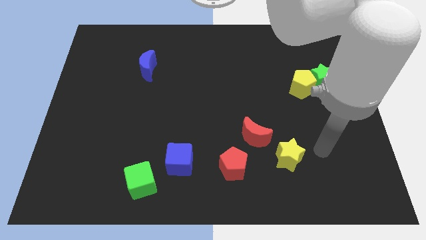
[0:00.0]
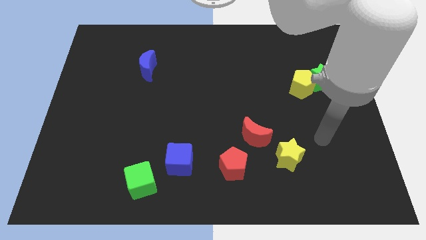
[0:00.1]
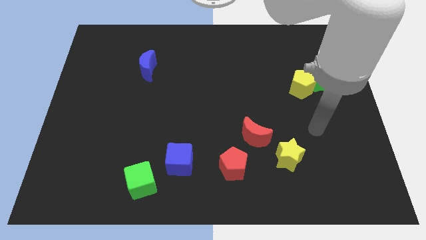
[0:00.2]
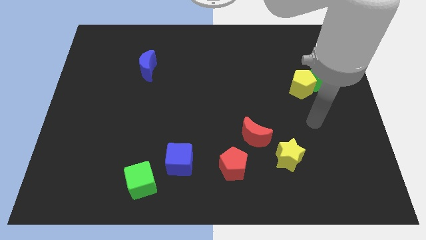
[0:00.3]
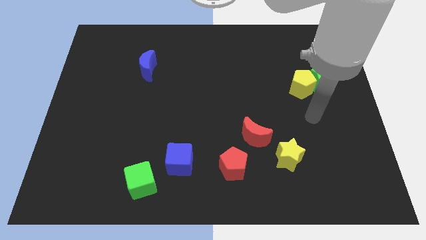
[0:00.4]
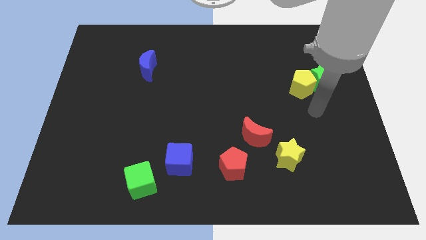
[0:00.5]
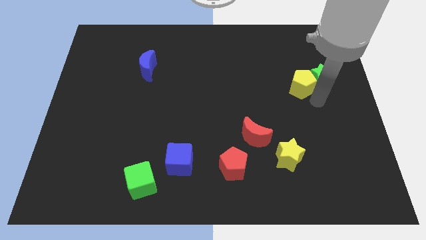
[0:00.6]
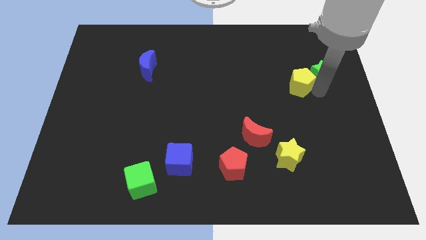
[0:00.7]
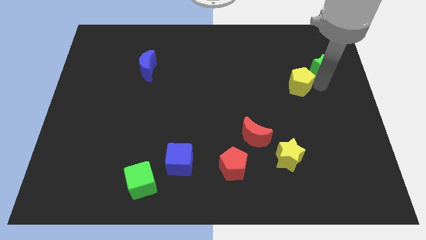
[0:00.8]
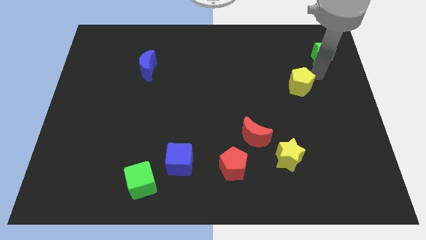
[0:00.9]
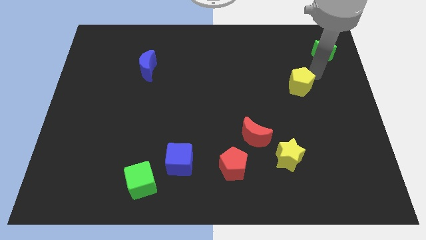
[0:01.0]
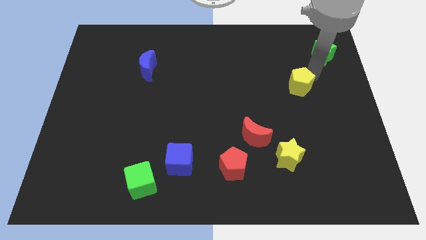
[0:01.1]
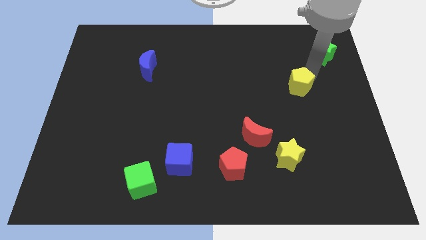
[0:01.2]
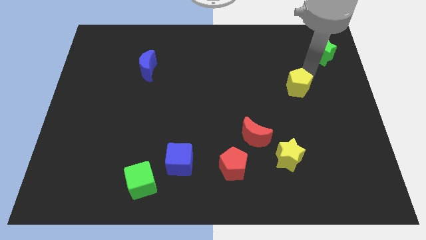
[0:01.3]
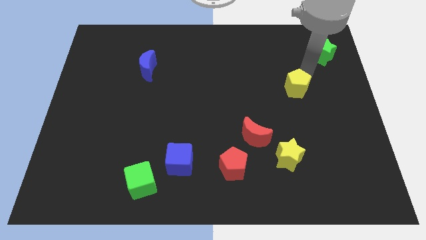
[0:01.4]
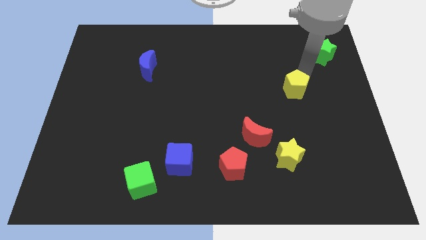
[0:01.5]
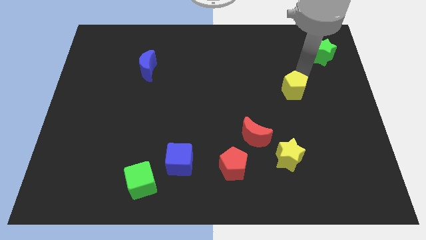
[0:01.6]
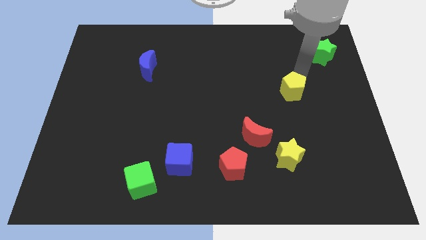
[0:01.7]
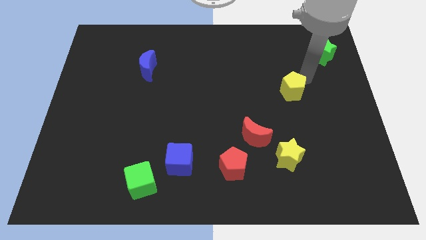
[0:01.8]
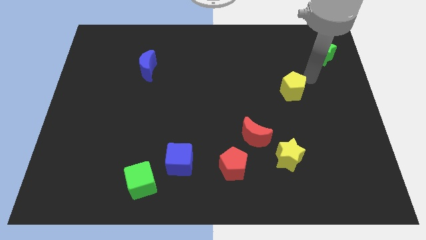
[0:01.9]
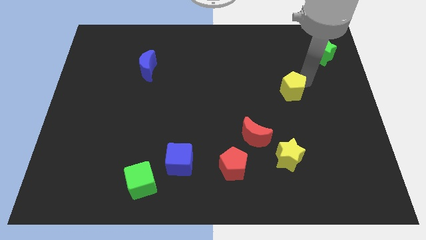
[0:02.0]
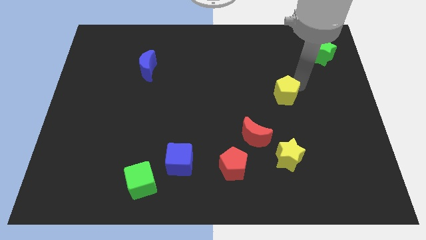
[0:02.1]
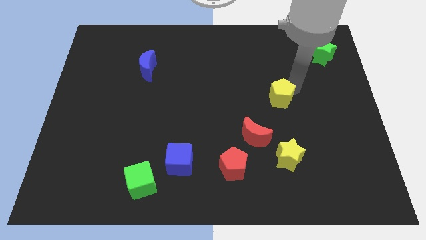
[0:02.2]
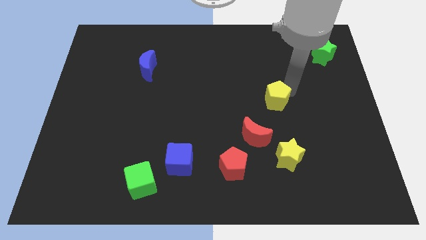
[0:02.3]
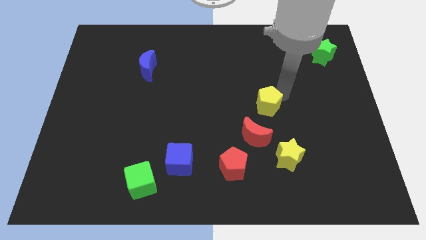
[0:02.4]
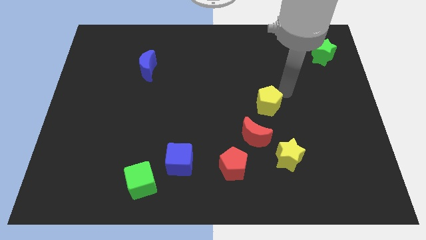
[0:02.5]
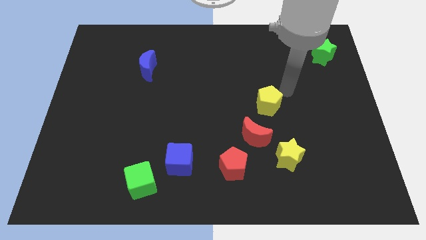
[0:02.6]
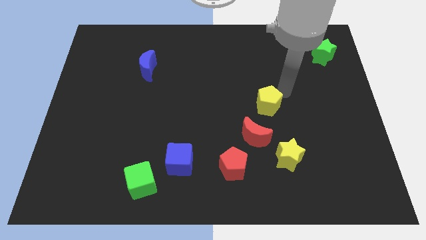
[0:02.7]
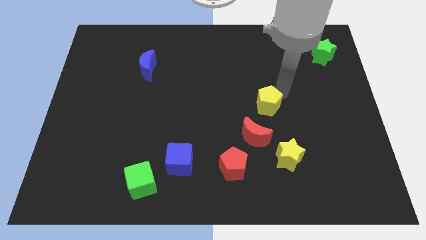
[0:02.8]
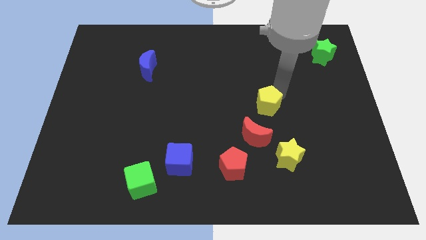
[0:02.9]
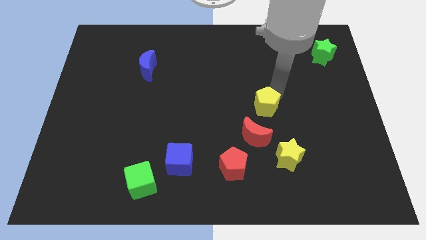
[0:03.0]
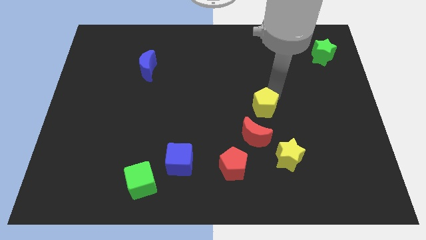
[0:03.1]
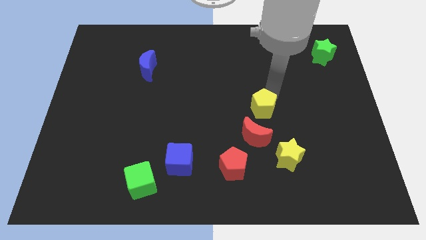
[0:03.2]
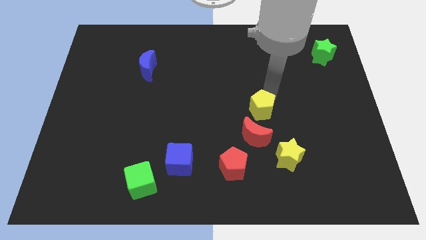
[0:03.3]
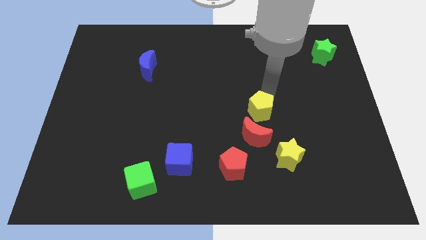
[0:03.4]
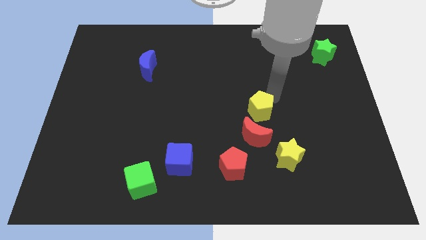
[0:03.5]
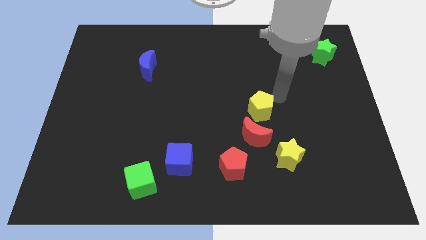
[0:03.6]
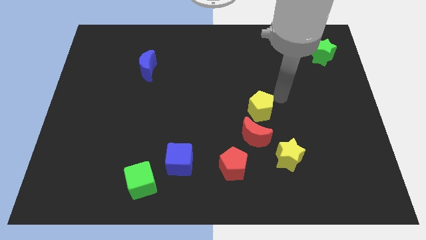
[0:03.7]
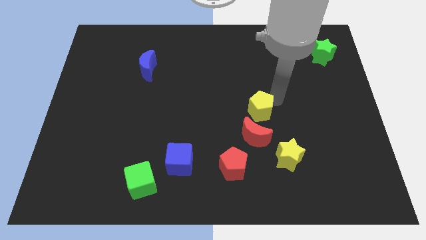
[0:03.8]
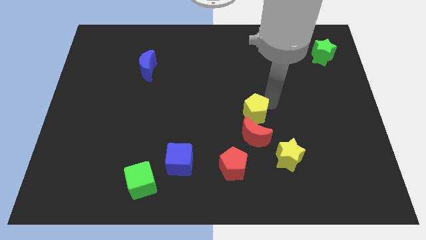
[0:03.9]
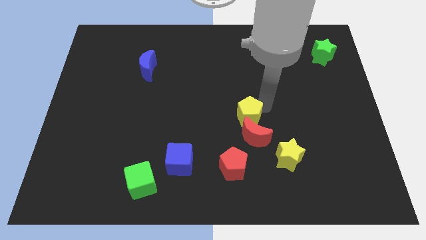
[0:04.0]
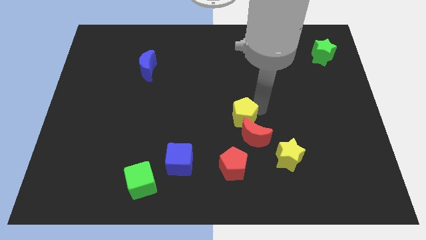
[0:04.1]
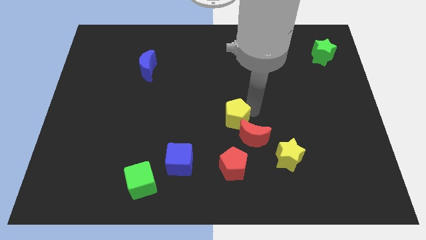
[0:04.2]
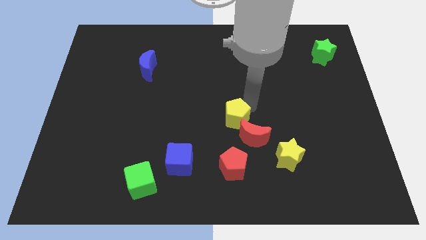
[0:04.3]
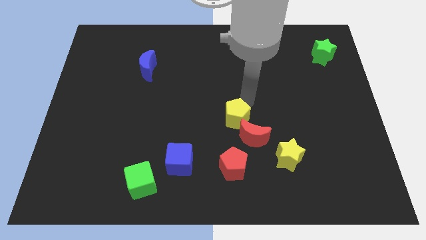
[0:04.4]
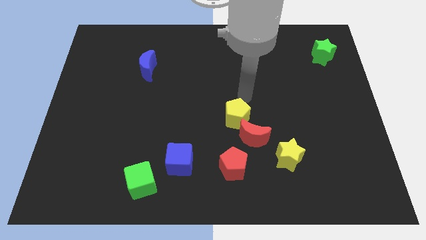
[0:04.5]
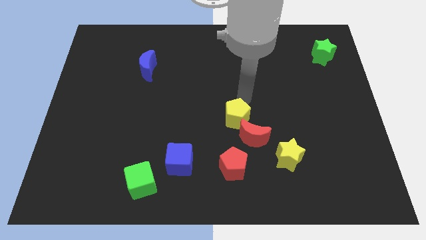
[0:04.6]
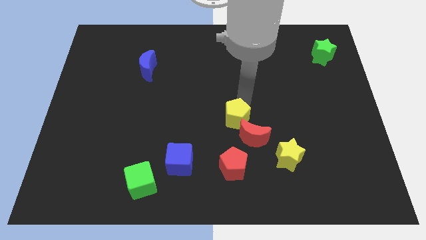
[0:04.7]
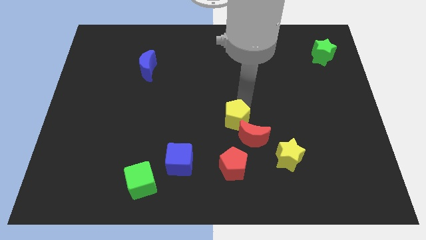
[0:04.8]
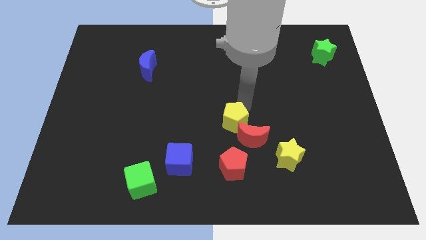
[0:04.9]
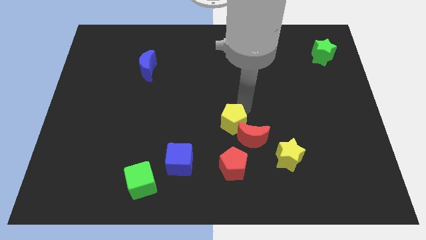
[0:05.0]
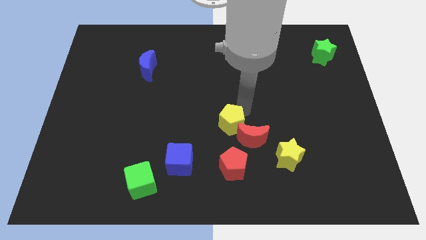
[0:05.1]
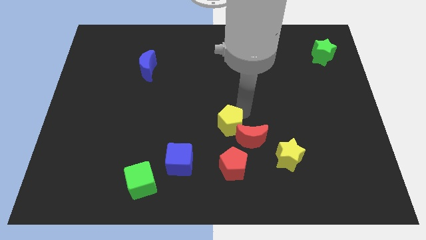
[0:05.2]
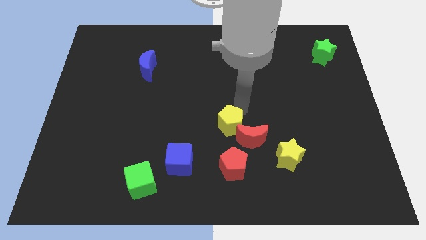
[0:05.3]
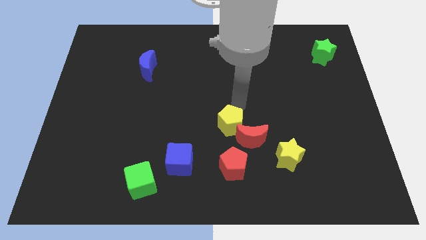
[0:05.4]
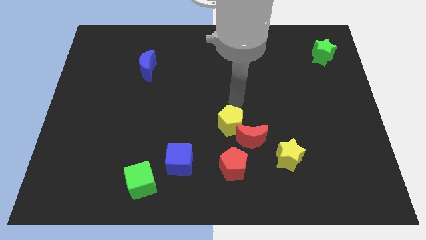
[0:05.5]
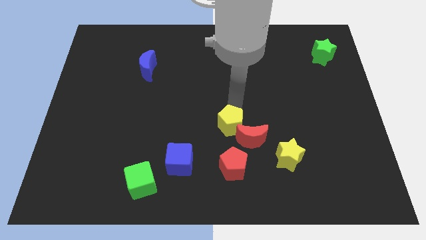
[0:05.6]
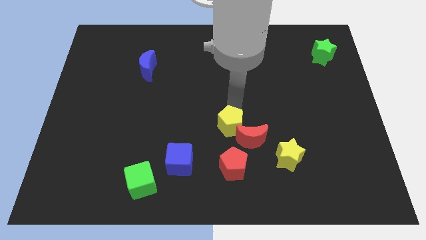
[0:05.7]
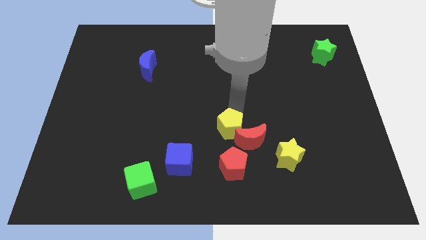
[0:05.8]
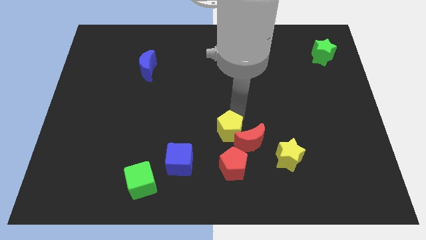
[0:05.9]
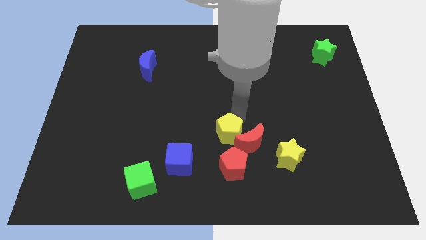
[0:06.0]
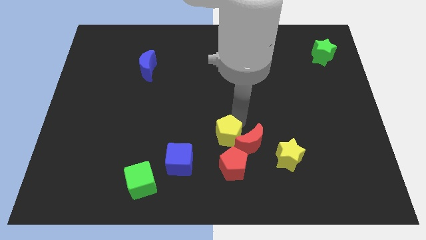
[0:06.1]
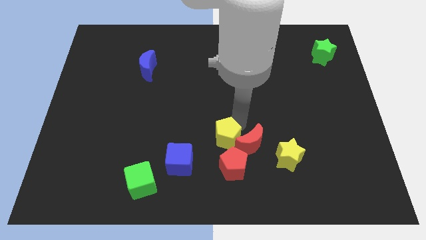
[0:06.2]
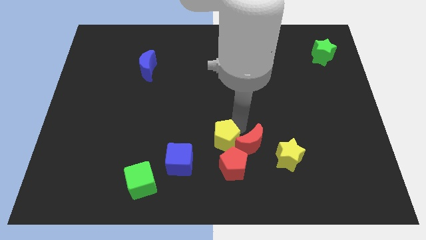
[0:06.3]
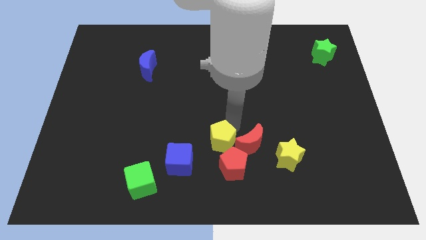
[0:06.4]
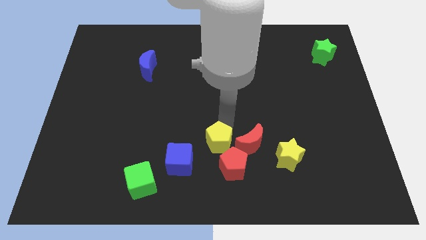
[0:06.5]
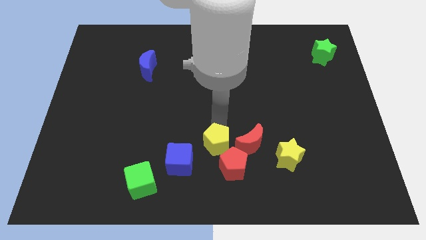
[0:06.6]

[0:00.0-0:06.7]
push the yellow pentagon just right of the blue cube
